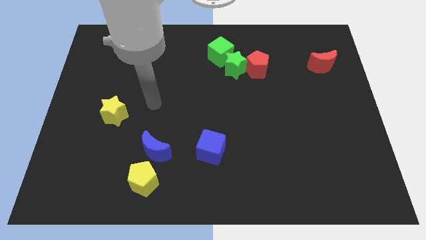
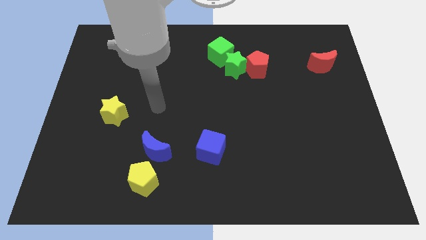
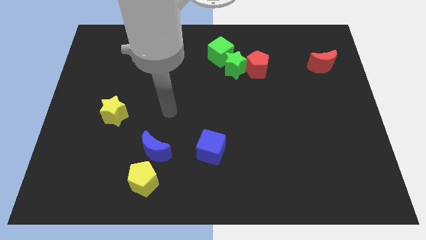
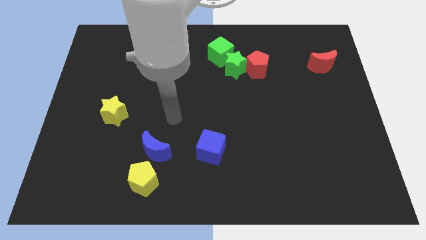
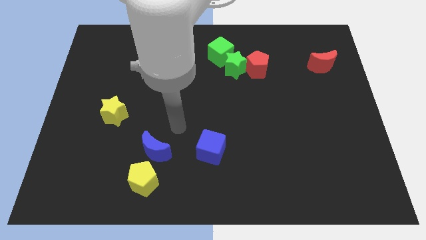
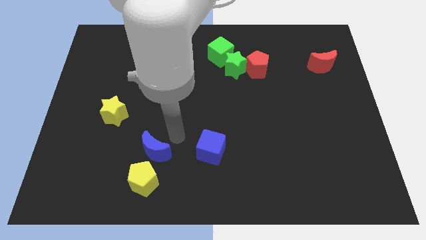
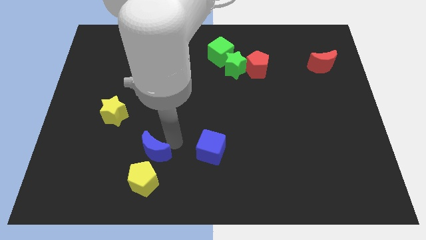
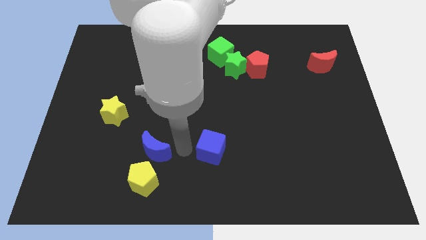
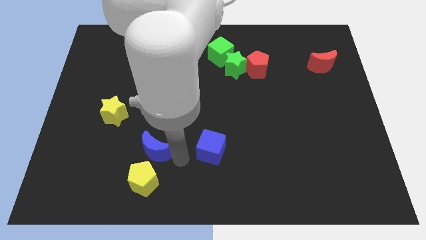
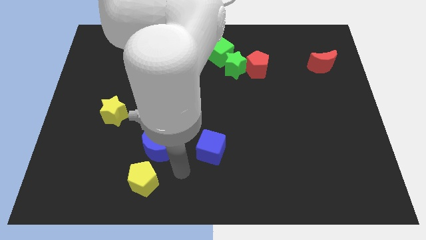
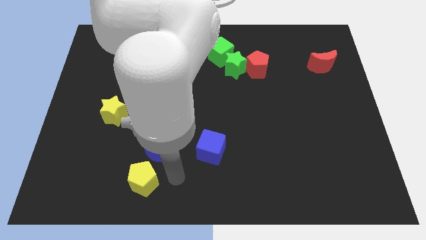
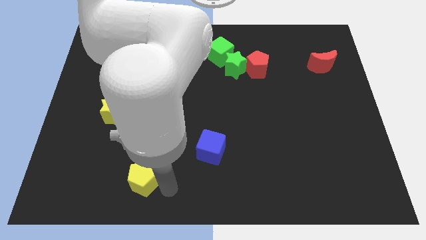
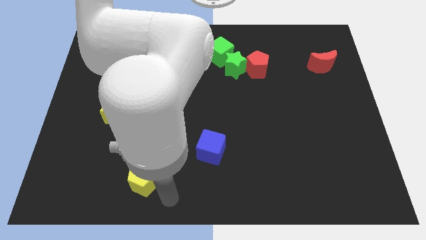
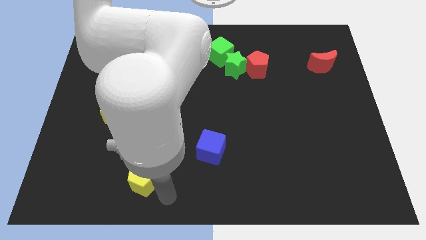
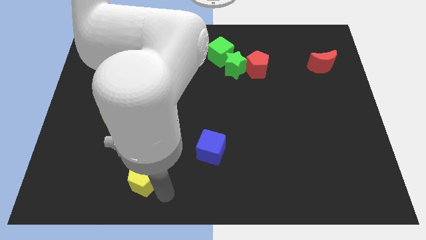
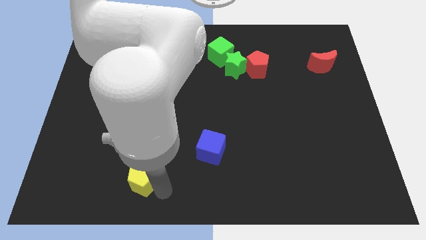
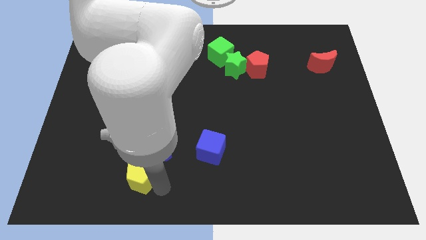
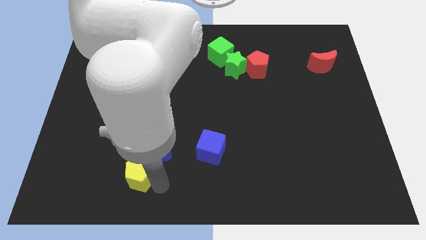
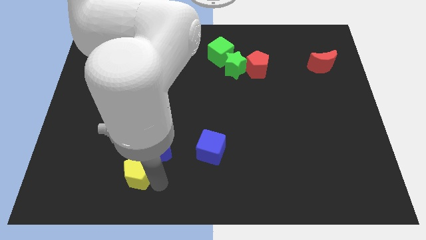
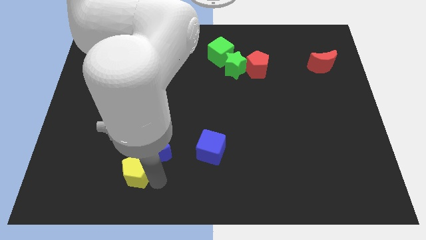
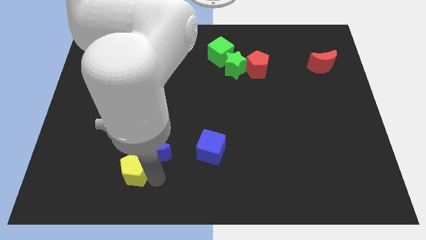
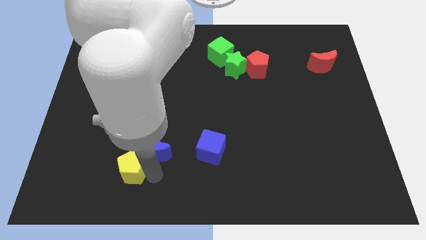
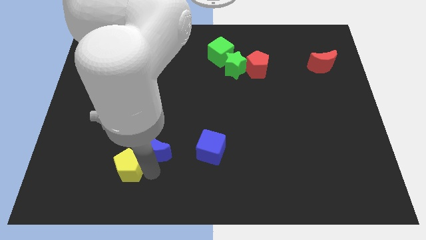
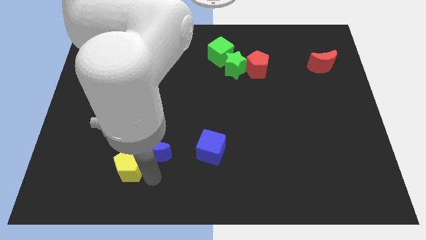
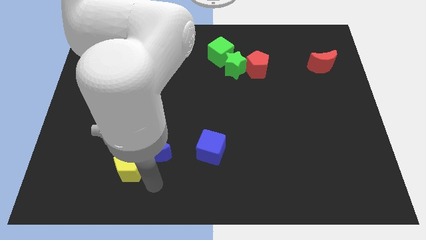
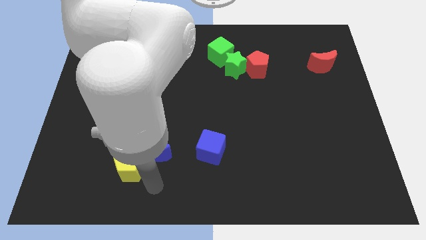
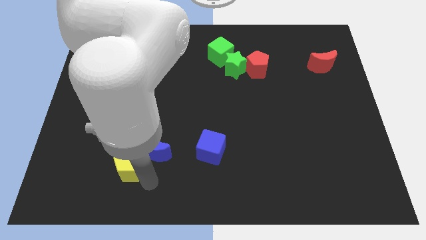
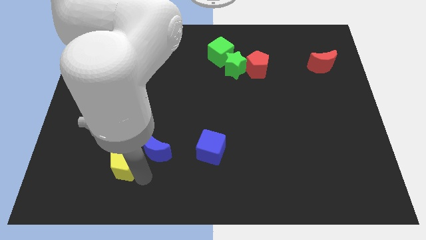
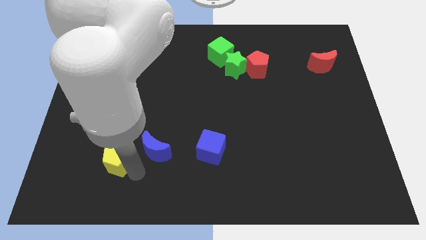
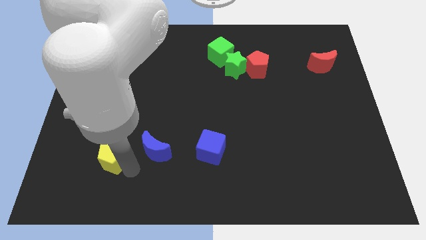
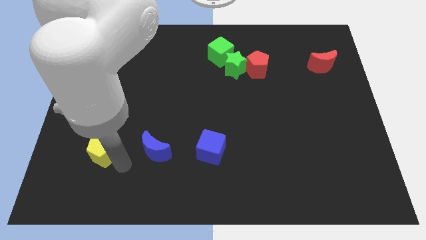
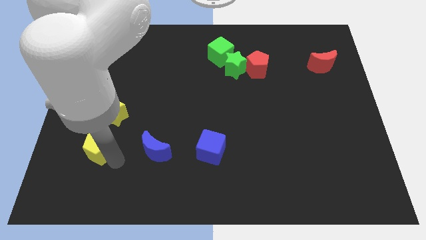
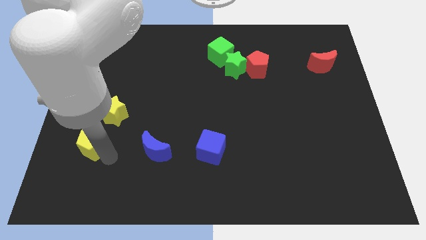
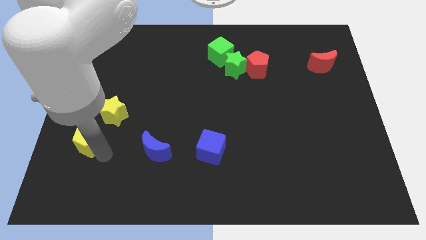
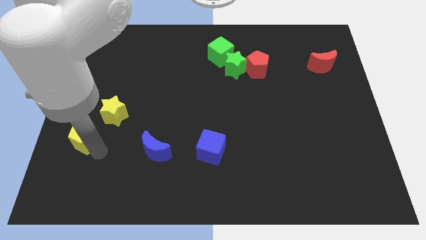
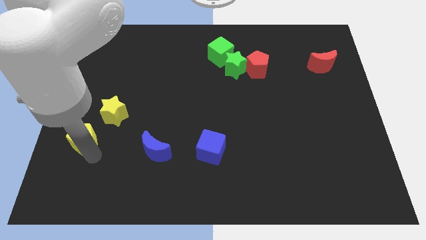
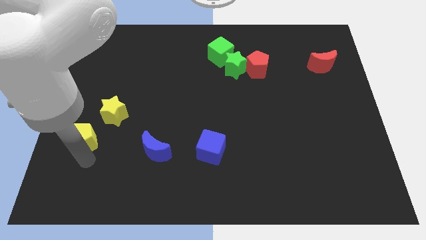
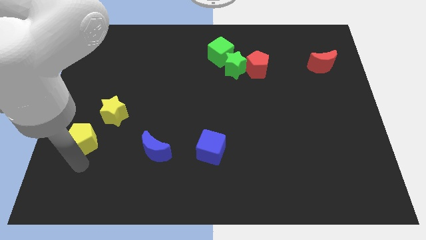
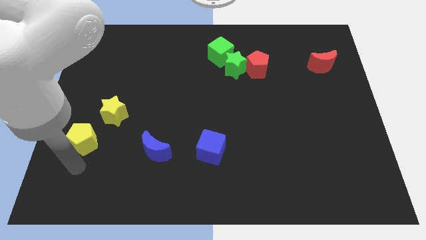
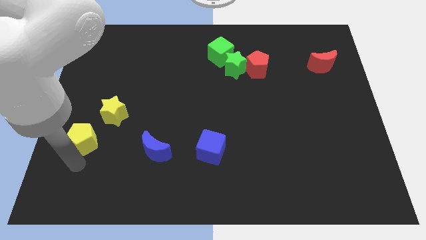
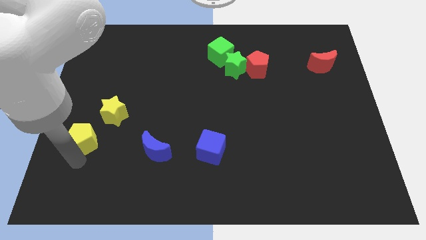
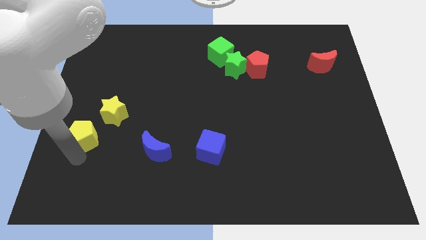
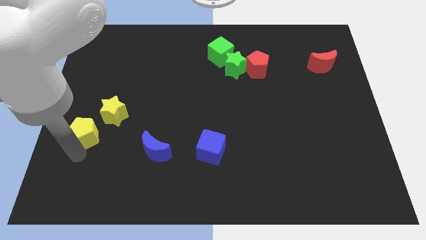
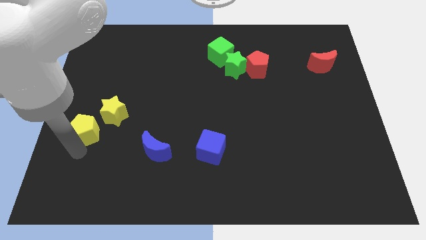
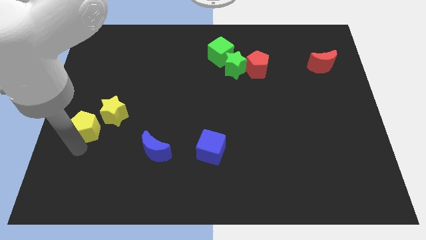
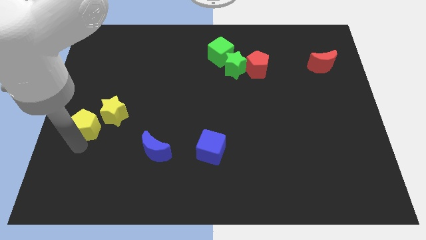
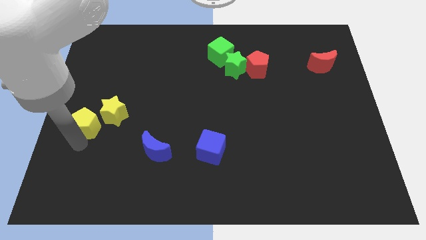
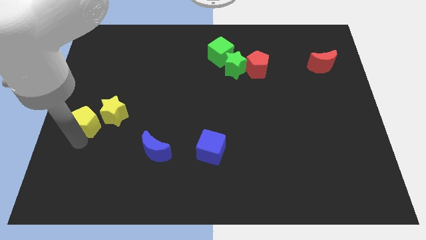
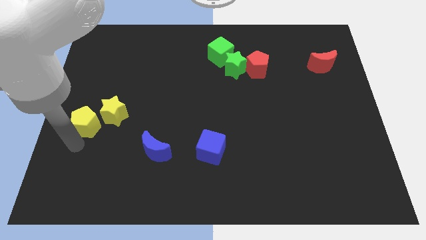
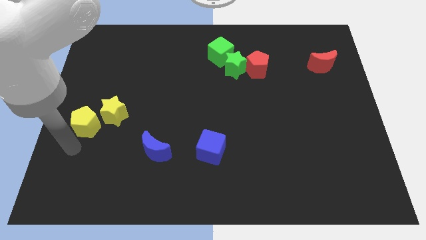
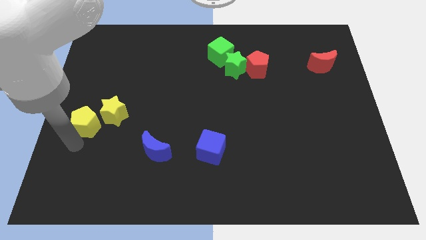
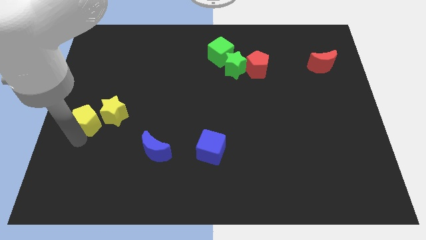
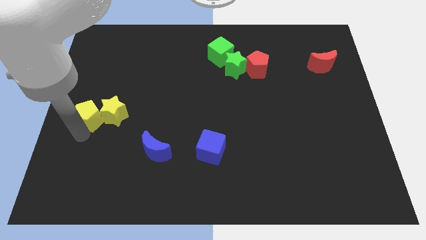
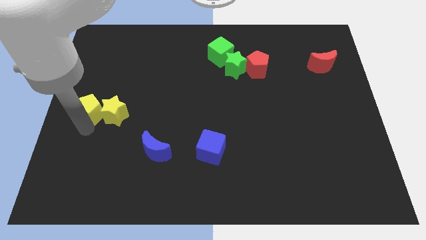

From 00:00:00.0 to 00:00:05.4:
push the yellow pentagon diagonally up and to the left of the yellow star

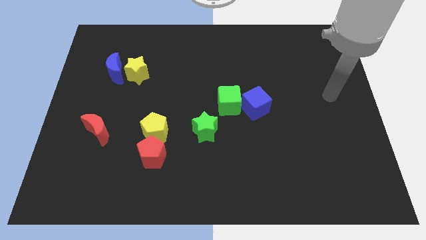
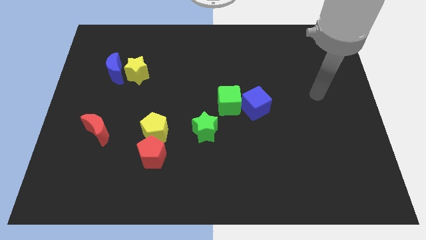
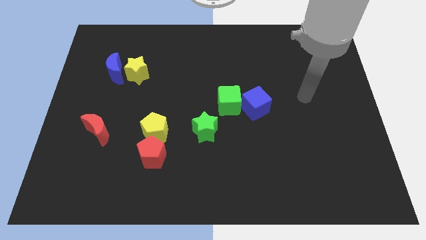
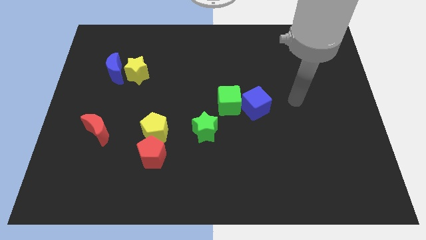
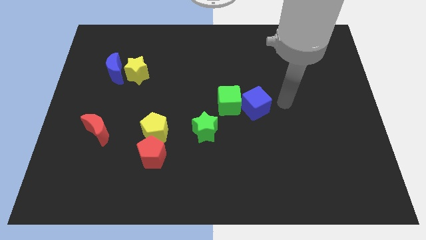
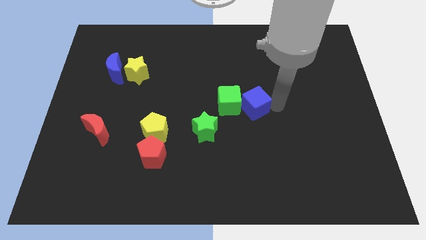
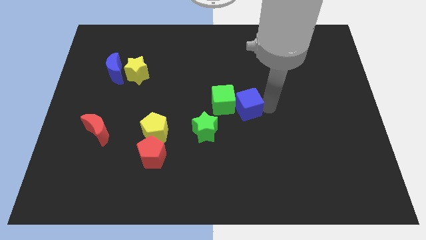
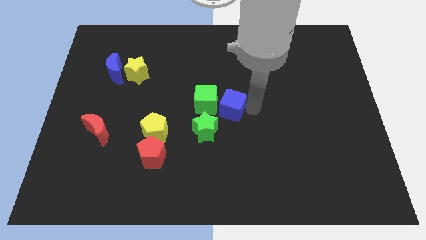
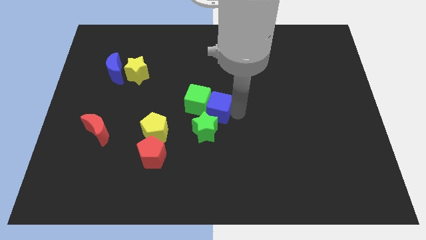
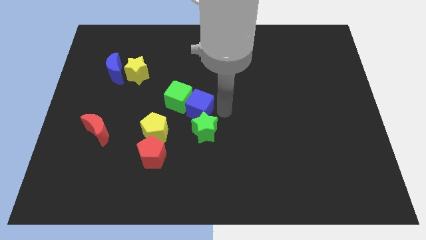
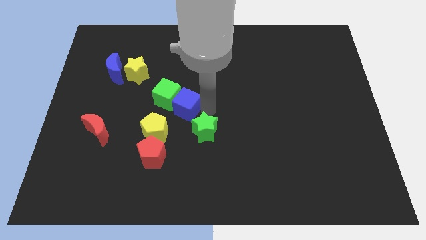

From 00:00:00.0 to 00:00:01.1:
slide the green cube to the bottom right side of the yellow star

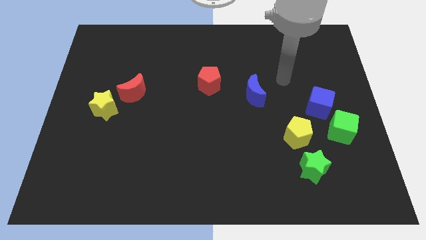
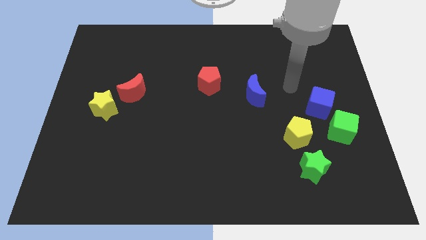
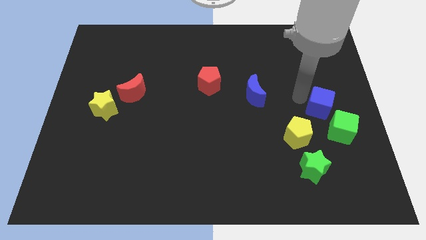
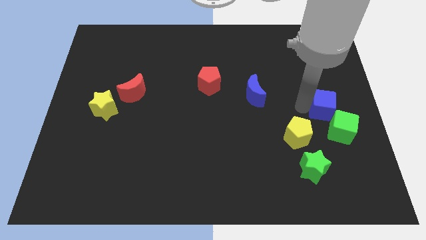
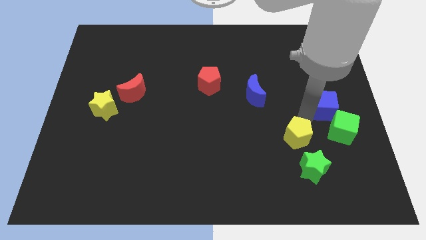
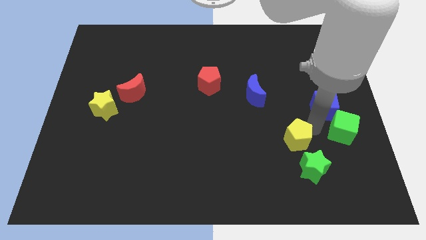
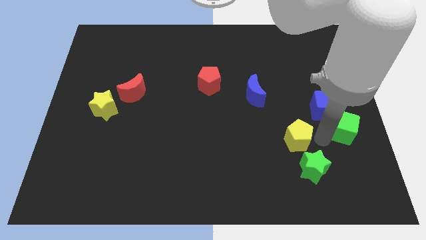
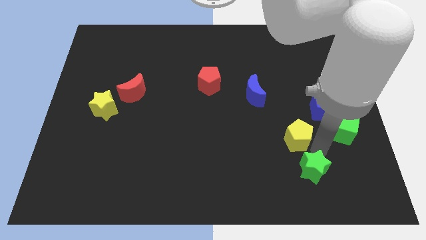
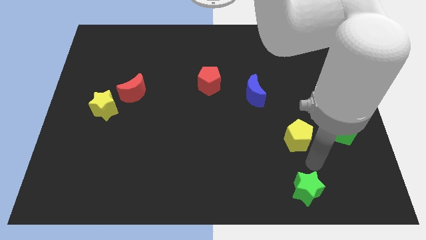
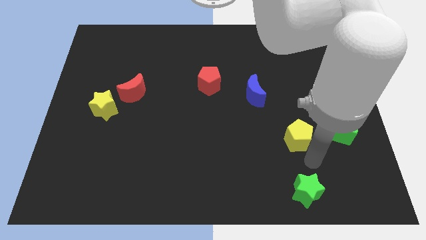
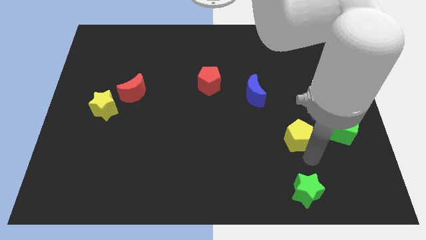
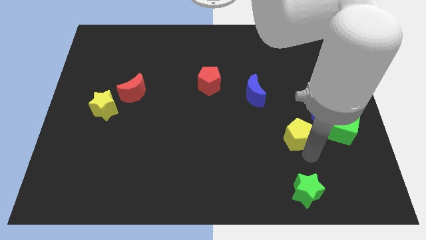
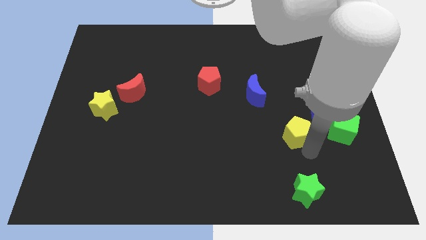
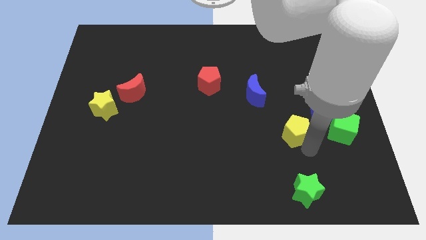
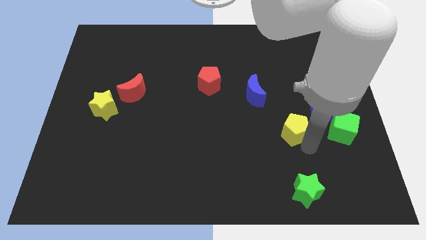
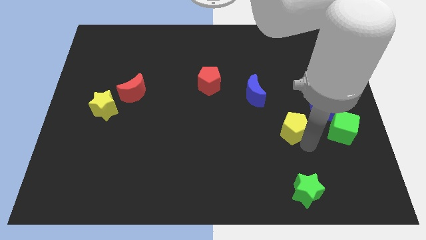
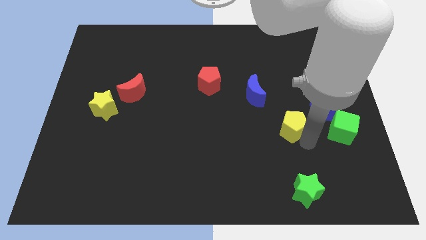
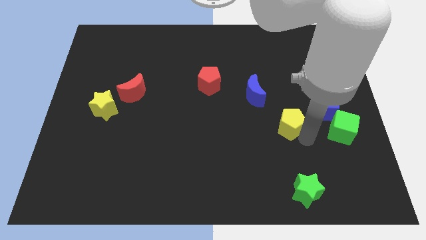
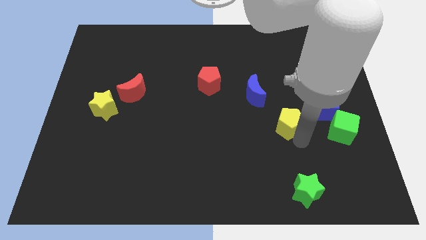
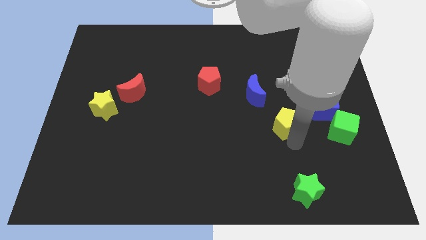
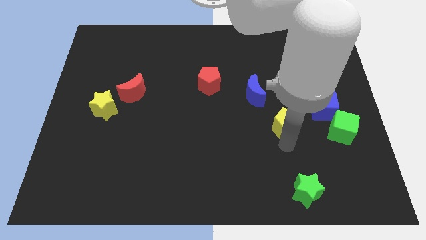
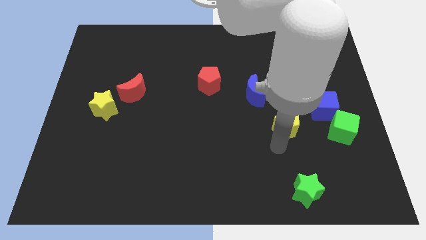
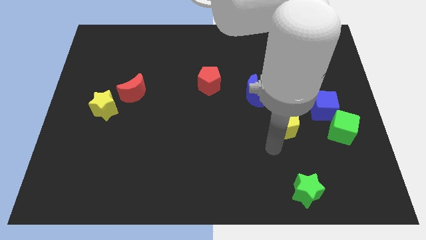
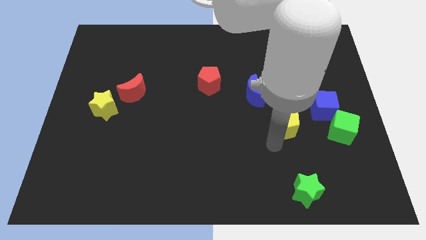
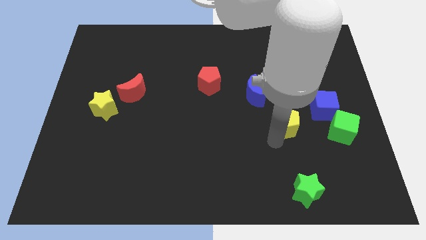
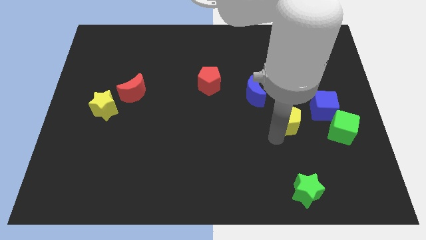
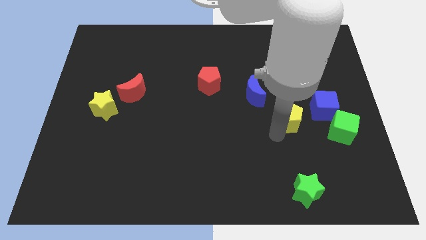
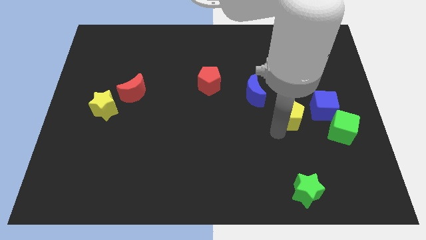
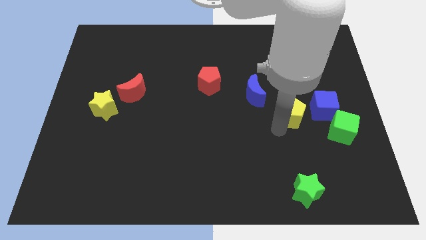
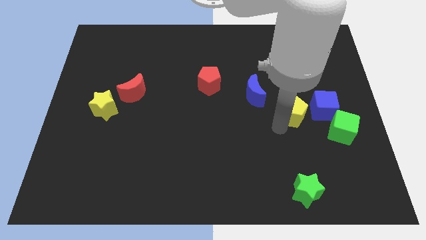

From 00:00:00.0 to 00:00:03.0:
put the yellow pentagon to the top left side of the green cube
